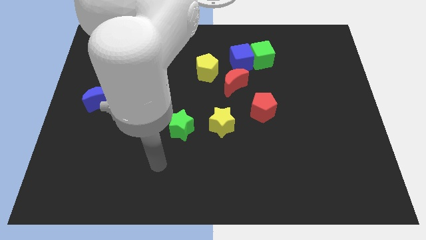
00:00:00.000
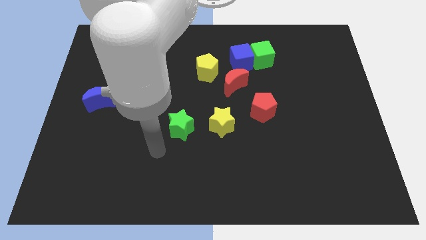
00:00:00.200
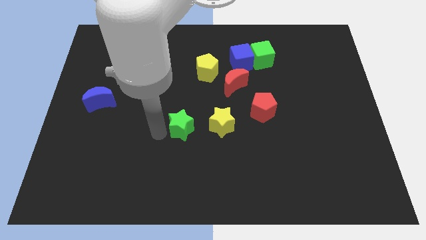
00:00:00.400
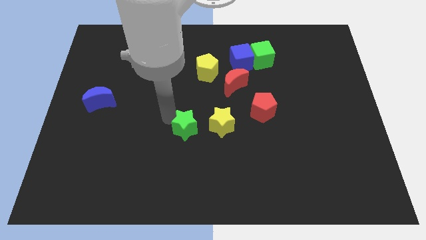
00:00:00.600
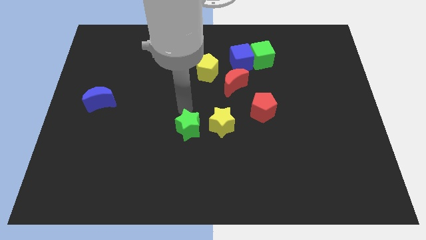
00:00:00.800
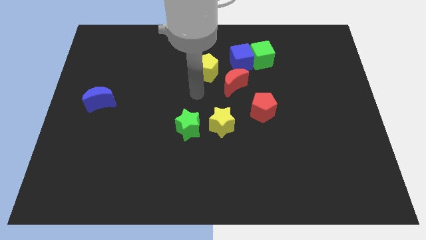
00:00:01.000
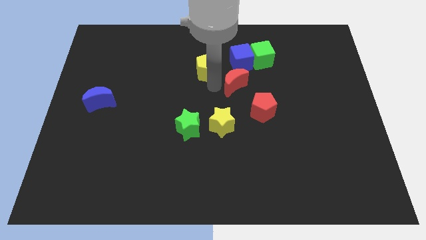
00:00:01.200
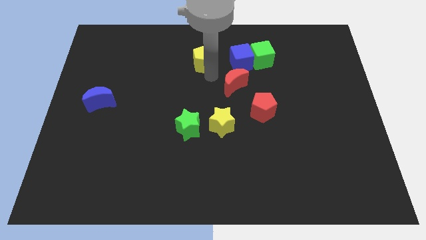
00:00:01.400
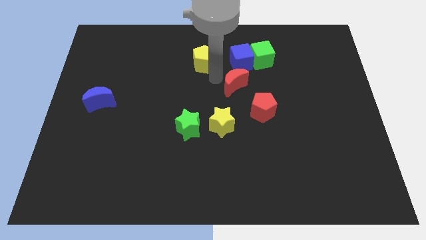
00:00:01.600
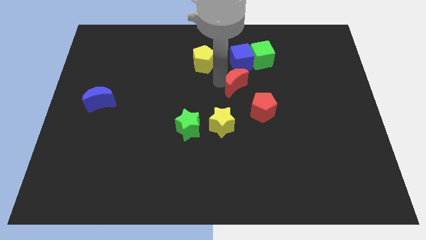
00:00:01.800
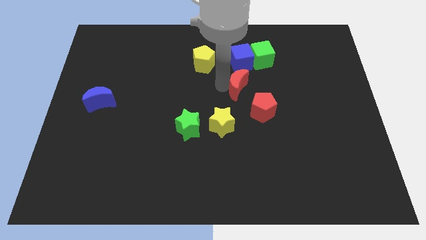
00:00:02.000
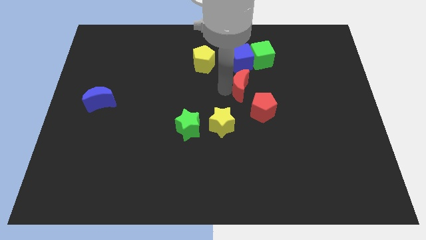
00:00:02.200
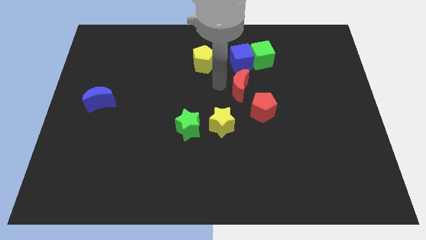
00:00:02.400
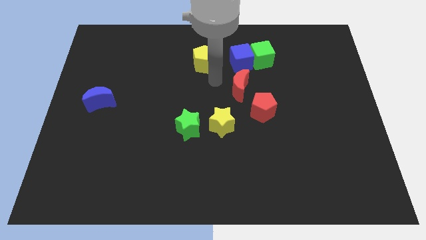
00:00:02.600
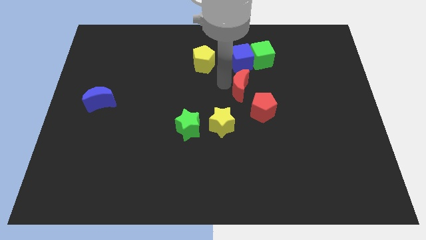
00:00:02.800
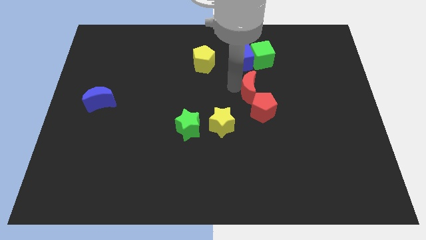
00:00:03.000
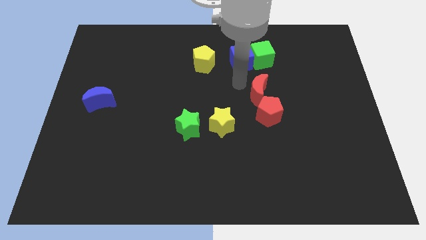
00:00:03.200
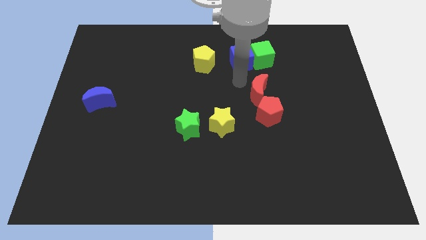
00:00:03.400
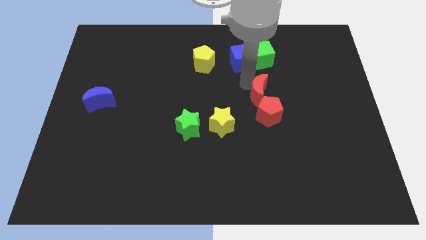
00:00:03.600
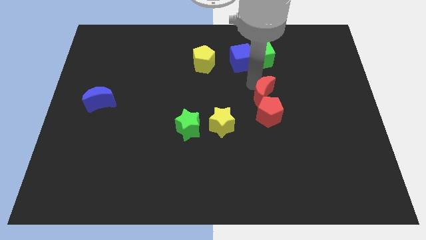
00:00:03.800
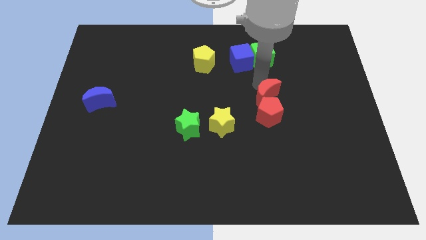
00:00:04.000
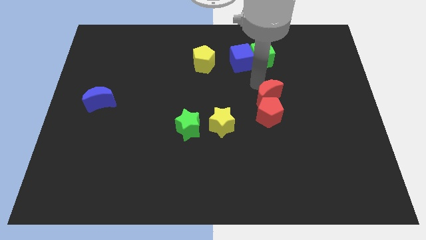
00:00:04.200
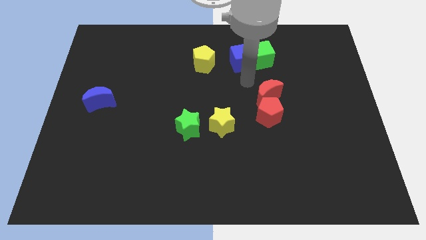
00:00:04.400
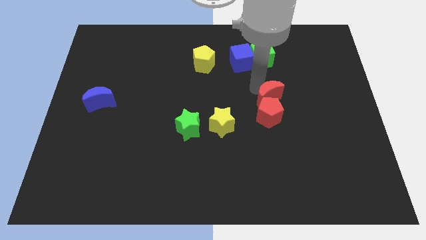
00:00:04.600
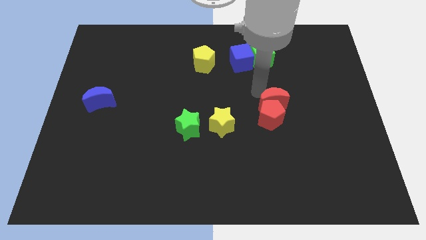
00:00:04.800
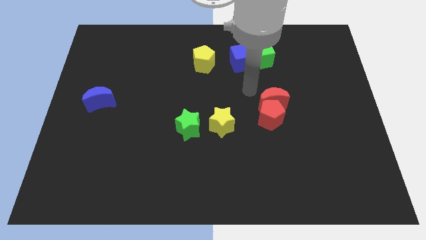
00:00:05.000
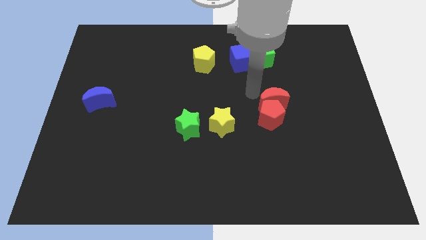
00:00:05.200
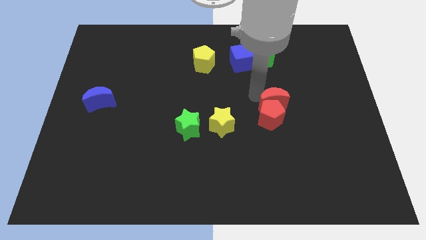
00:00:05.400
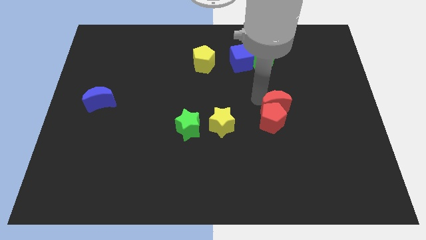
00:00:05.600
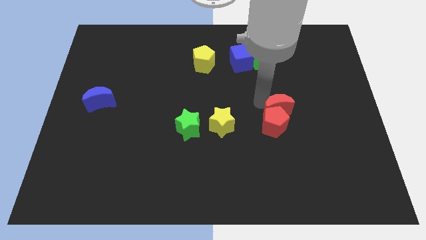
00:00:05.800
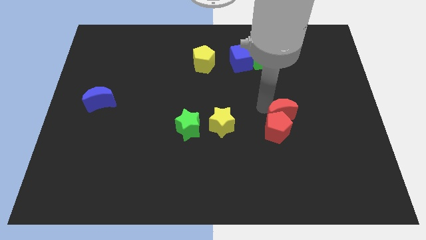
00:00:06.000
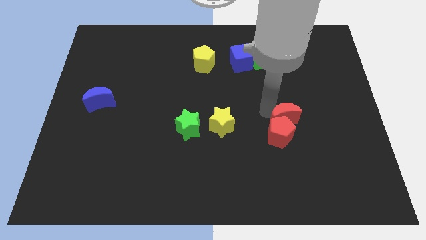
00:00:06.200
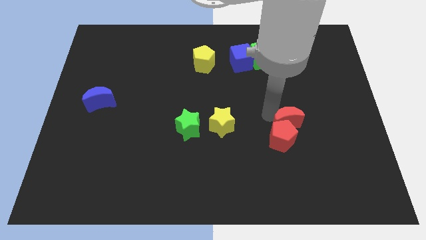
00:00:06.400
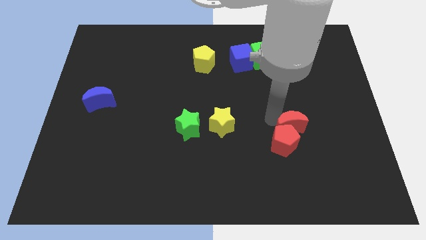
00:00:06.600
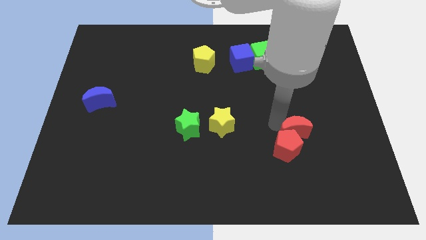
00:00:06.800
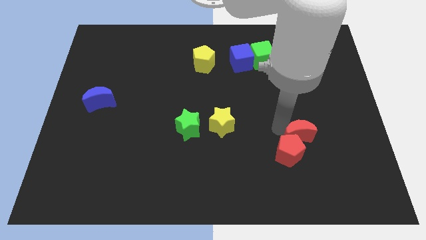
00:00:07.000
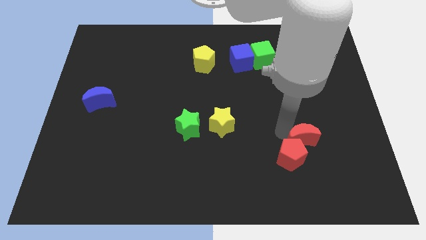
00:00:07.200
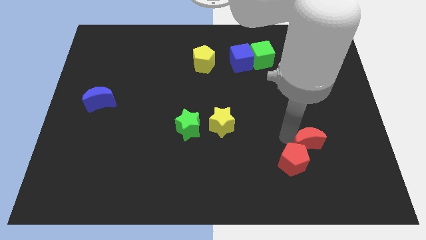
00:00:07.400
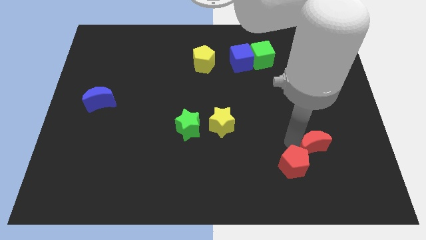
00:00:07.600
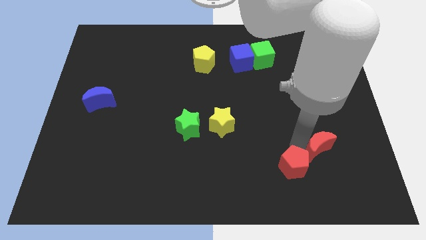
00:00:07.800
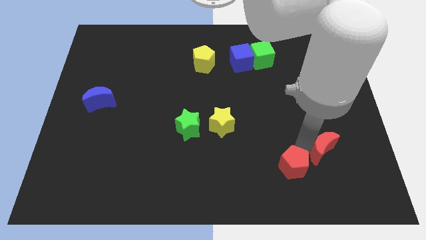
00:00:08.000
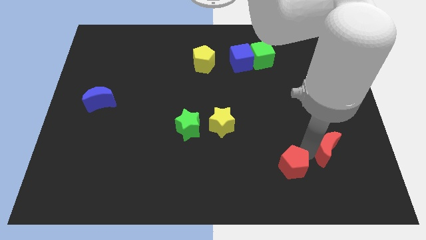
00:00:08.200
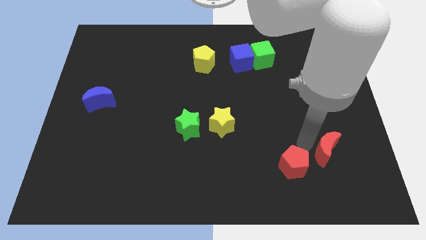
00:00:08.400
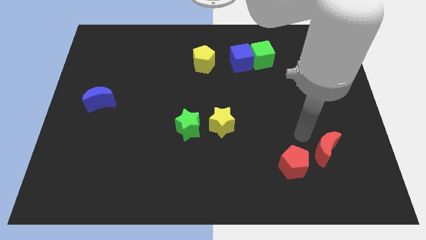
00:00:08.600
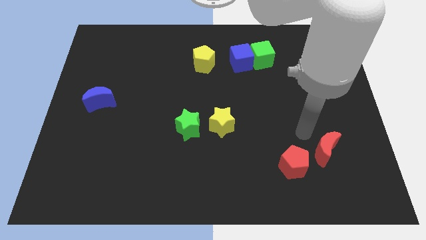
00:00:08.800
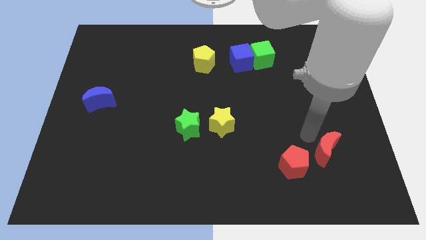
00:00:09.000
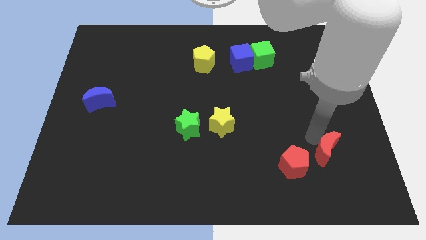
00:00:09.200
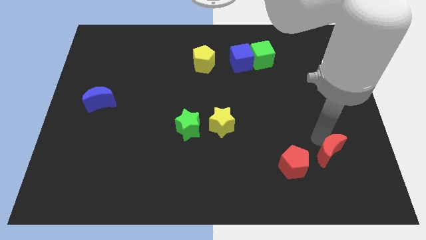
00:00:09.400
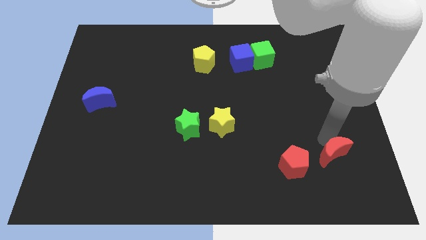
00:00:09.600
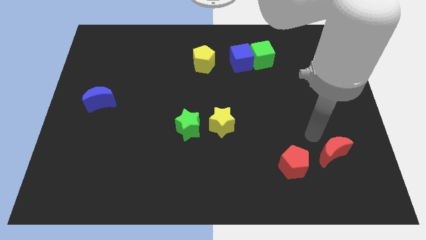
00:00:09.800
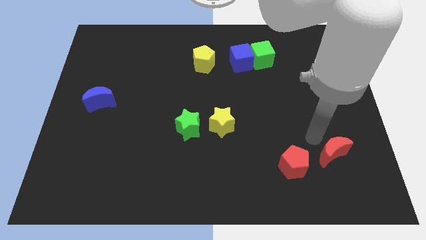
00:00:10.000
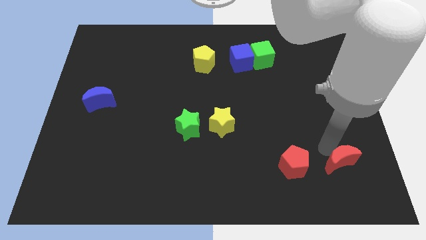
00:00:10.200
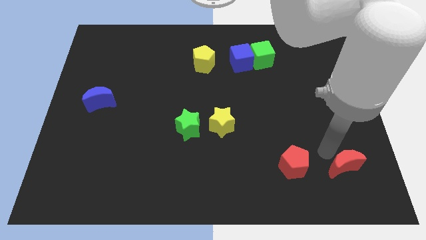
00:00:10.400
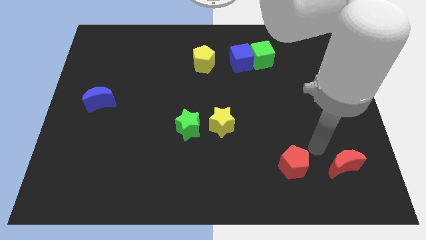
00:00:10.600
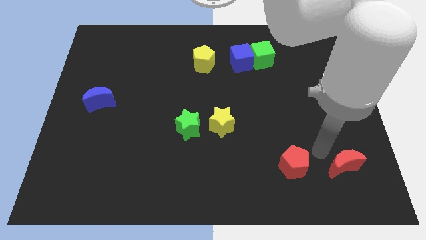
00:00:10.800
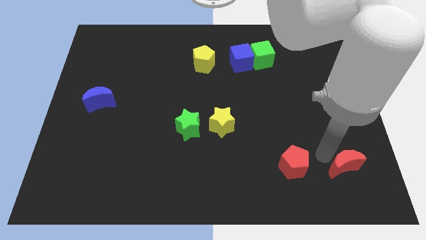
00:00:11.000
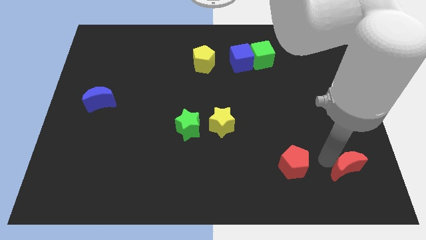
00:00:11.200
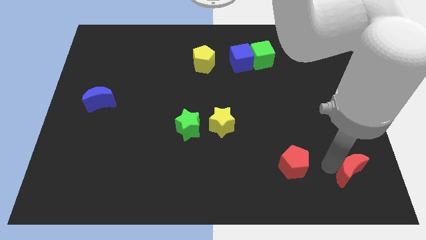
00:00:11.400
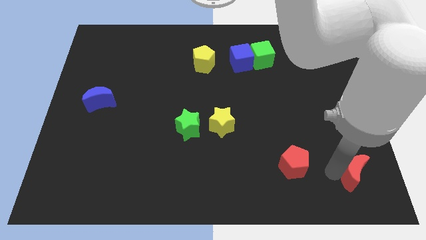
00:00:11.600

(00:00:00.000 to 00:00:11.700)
slide the red moon to the bottom right
